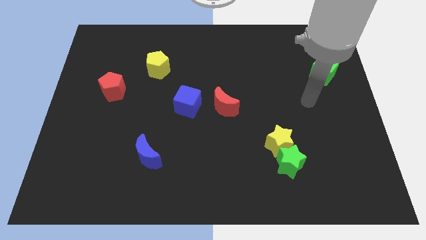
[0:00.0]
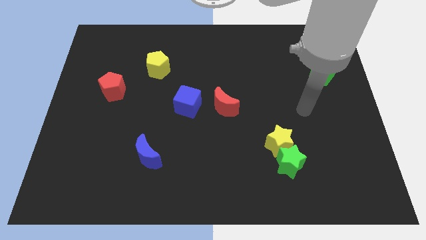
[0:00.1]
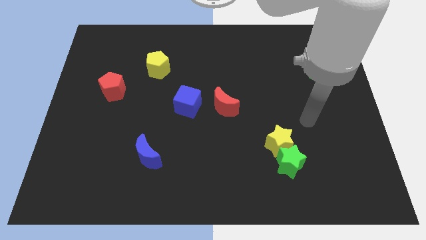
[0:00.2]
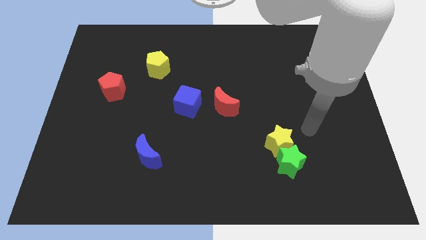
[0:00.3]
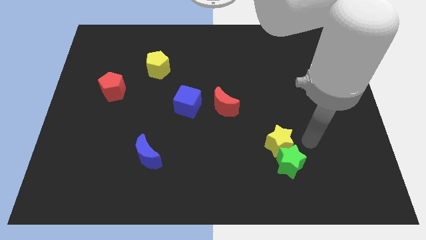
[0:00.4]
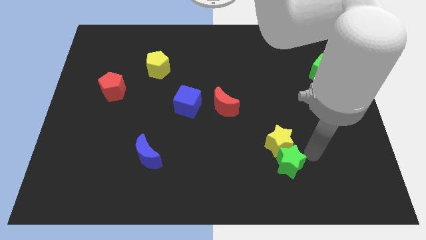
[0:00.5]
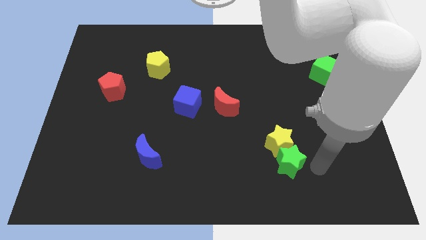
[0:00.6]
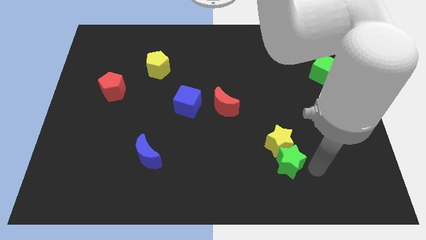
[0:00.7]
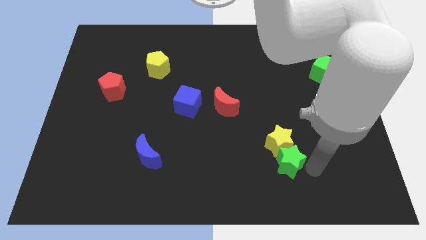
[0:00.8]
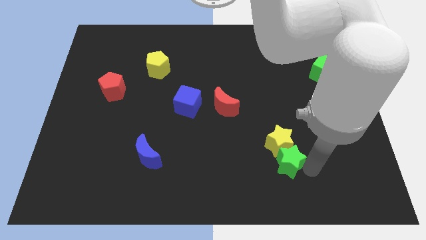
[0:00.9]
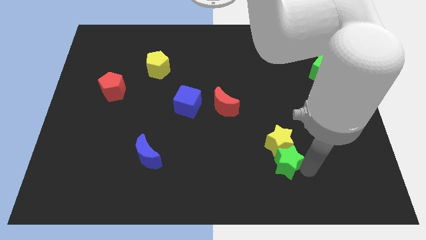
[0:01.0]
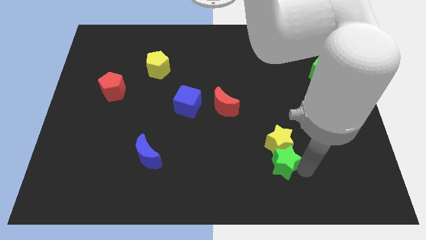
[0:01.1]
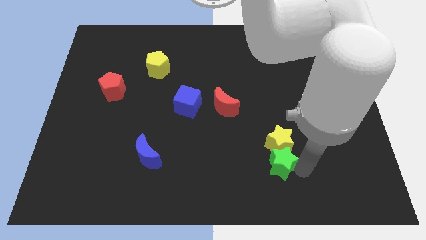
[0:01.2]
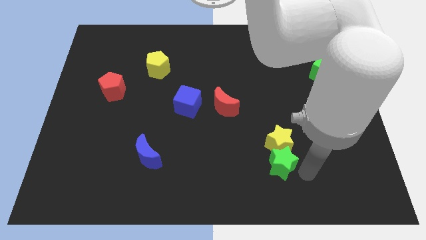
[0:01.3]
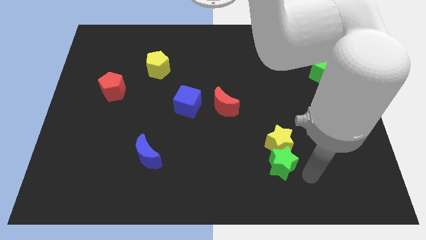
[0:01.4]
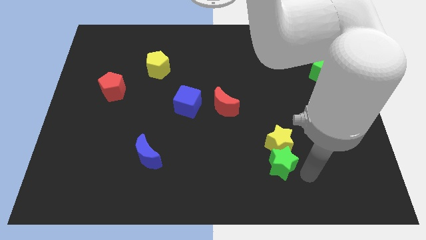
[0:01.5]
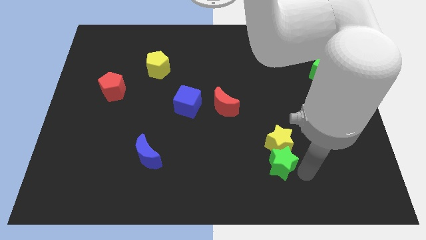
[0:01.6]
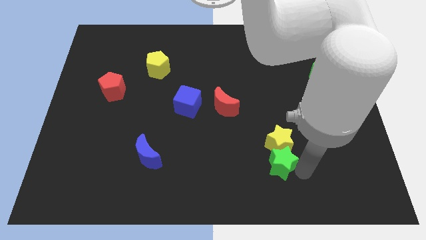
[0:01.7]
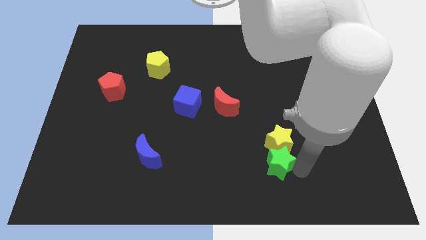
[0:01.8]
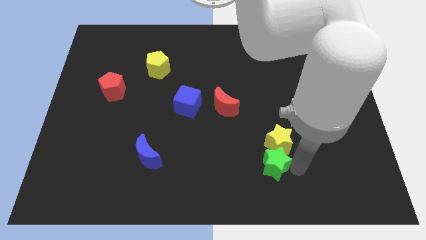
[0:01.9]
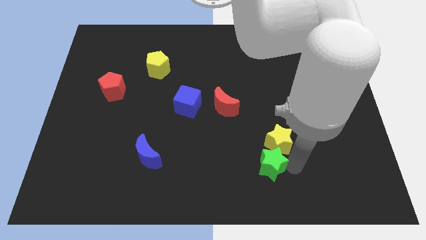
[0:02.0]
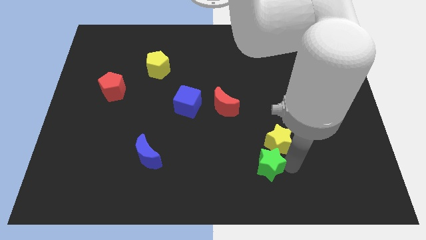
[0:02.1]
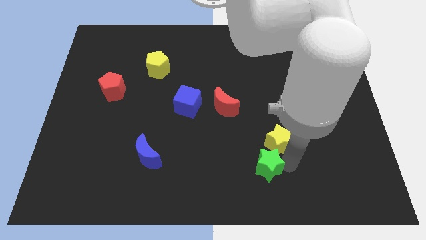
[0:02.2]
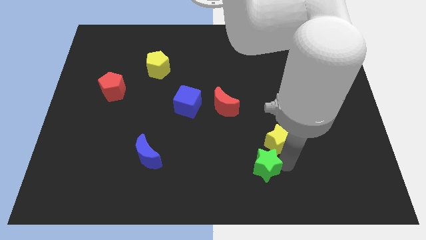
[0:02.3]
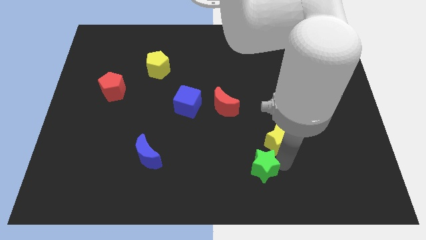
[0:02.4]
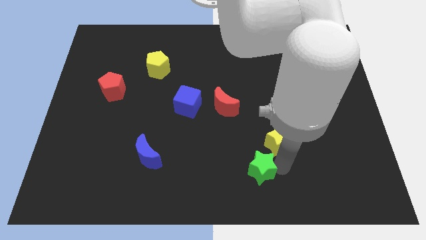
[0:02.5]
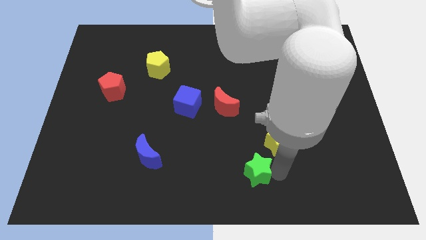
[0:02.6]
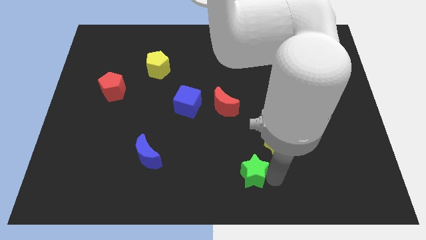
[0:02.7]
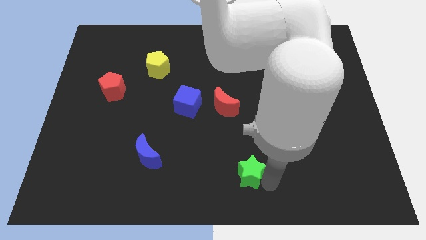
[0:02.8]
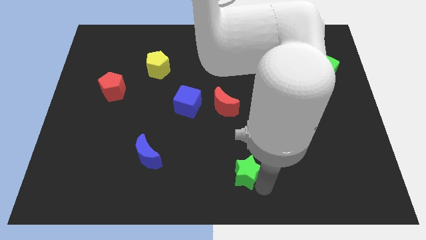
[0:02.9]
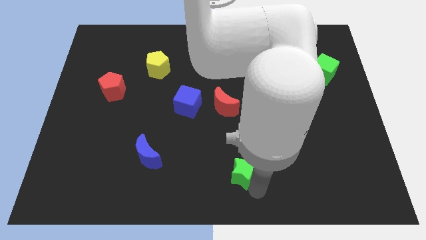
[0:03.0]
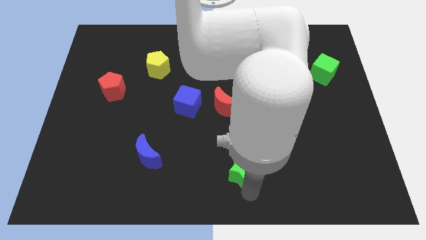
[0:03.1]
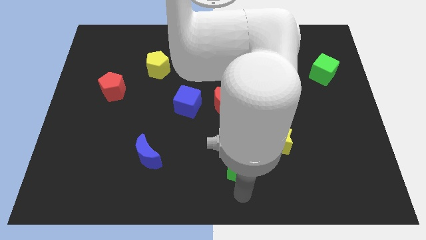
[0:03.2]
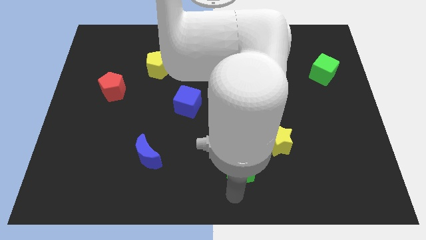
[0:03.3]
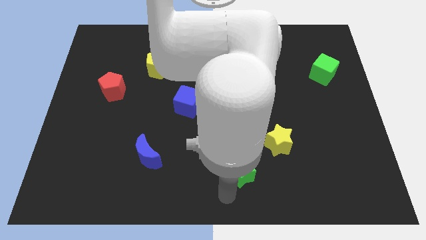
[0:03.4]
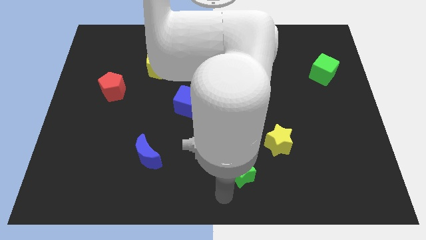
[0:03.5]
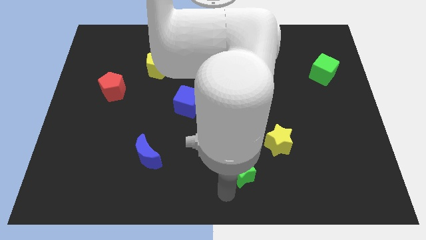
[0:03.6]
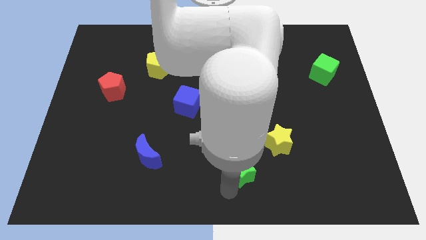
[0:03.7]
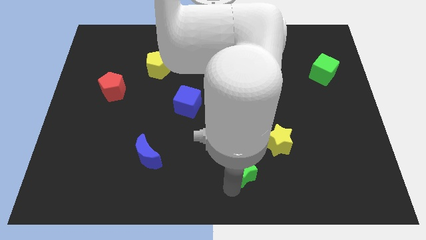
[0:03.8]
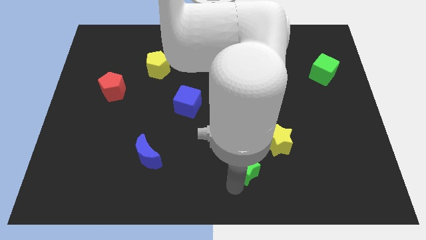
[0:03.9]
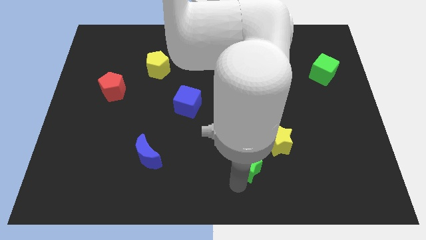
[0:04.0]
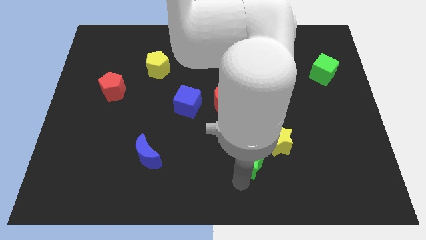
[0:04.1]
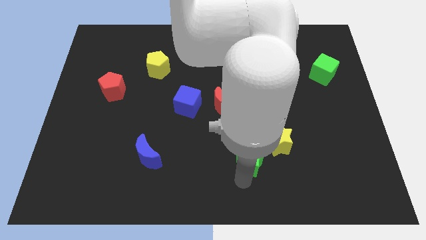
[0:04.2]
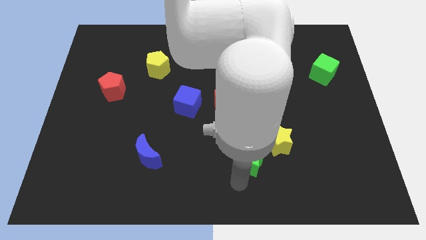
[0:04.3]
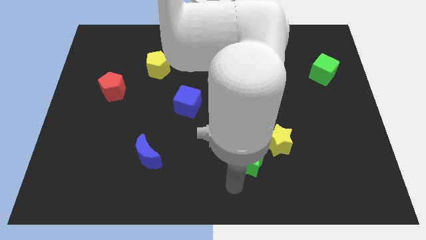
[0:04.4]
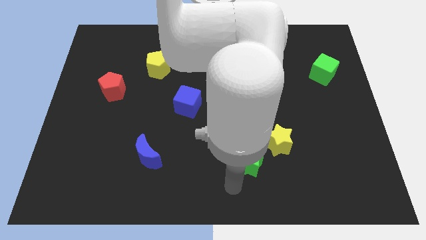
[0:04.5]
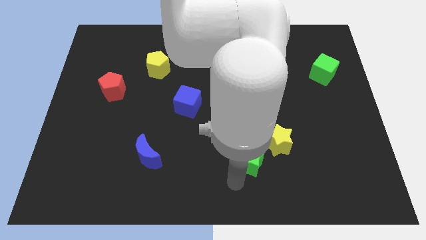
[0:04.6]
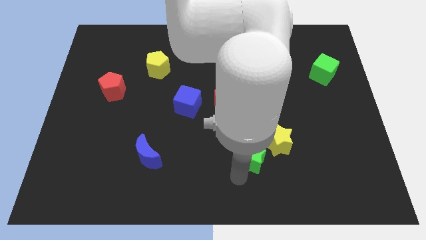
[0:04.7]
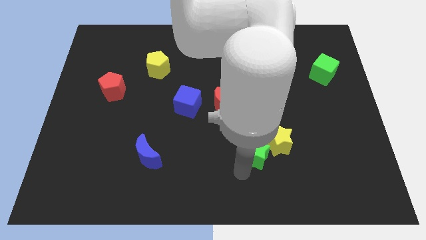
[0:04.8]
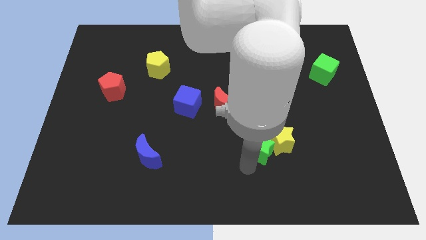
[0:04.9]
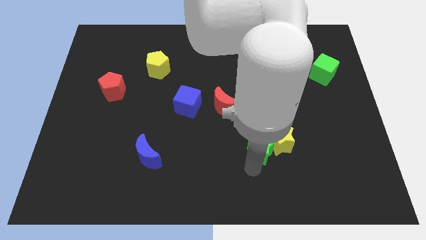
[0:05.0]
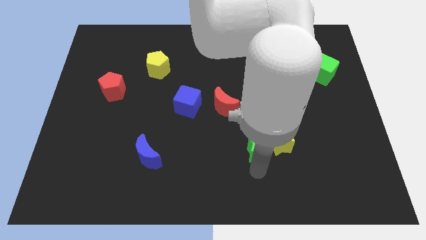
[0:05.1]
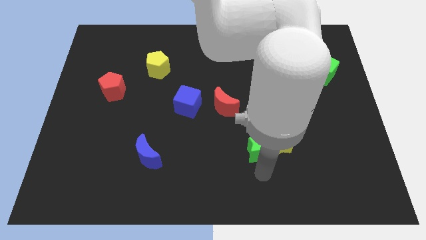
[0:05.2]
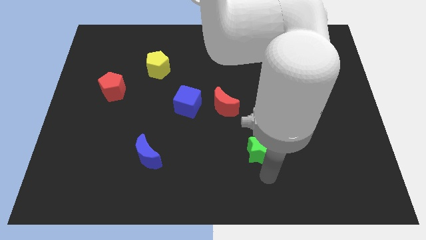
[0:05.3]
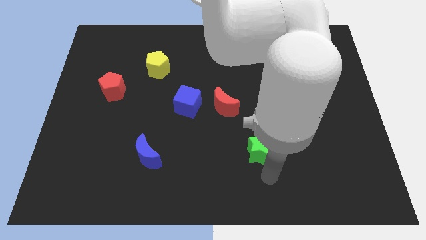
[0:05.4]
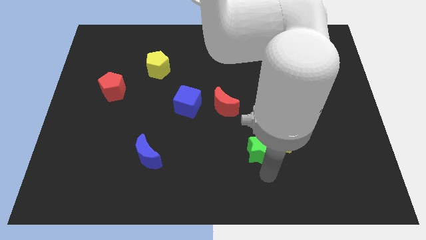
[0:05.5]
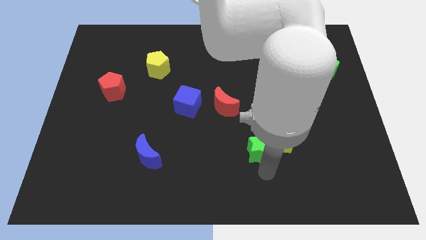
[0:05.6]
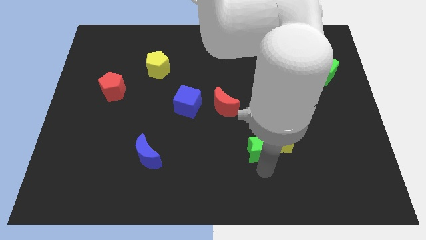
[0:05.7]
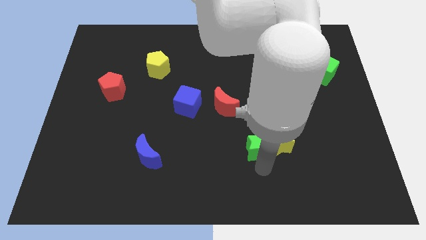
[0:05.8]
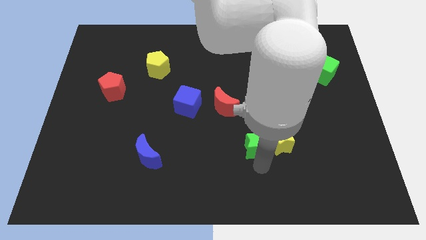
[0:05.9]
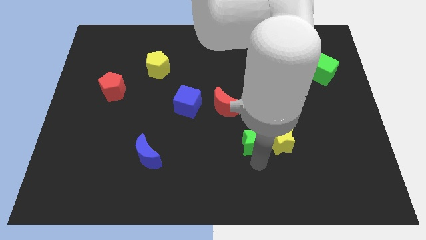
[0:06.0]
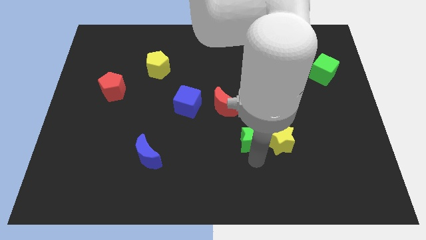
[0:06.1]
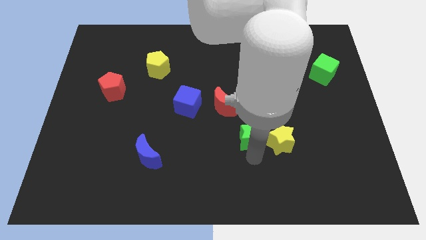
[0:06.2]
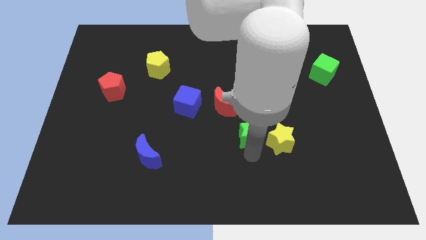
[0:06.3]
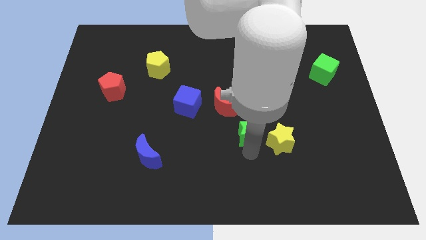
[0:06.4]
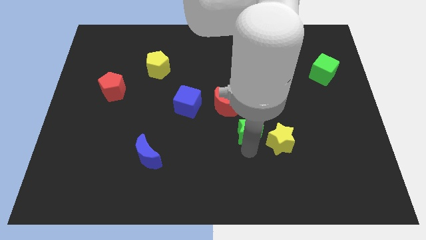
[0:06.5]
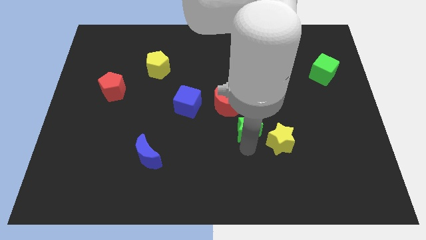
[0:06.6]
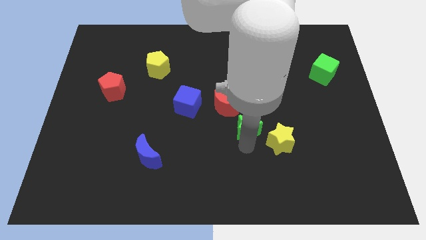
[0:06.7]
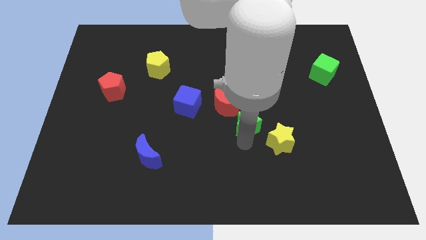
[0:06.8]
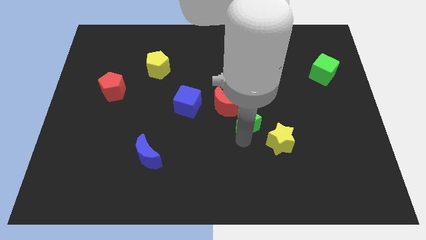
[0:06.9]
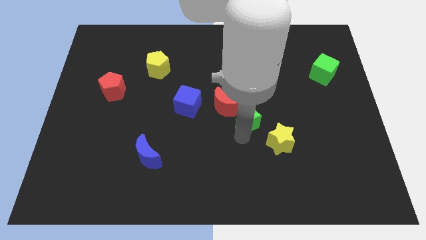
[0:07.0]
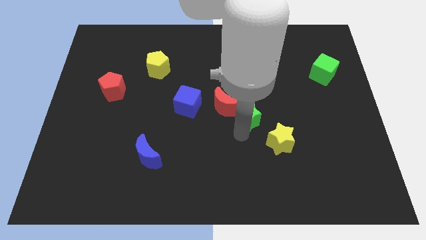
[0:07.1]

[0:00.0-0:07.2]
move the green star next to the red moon

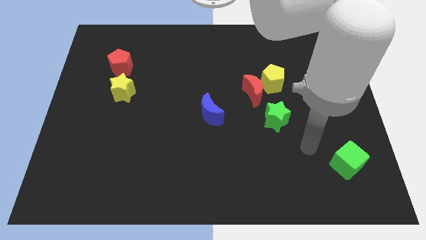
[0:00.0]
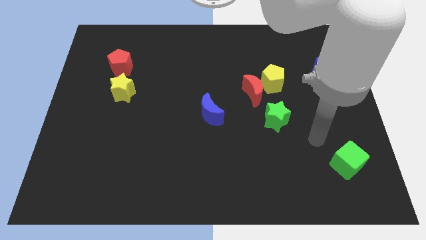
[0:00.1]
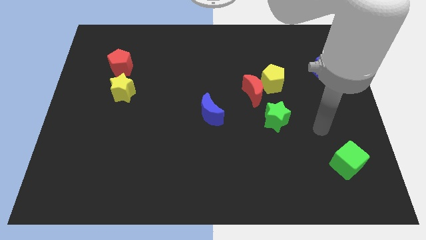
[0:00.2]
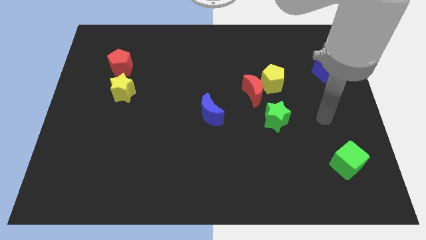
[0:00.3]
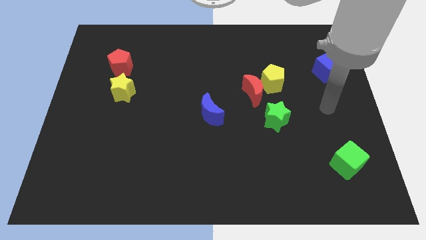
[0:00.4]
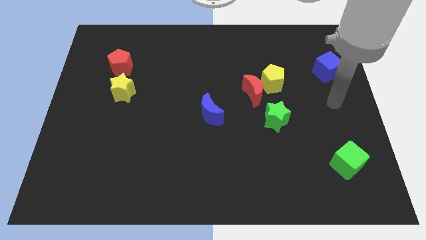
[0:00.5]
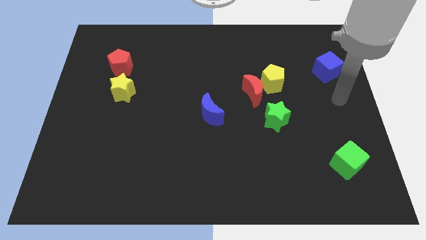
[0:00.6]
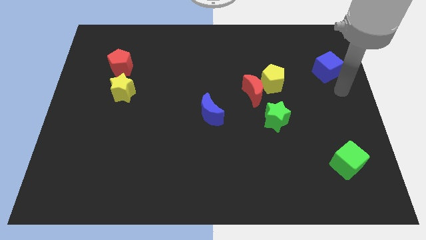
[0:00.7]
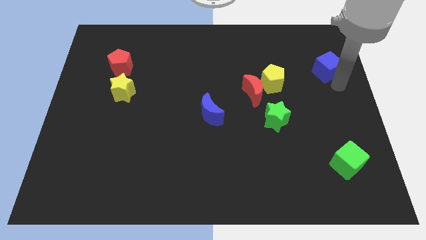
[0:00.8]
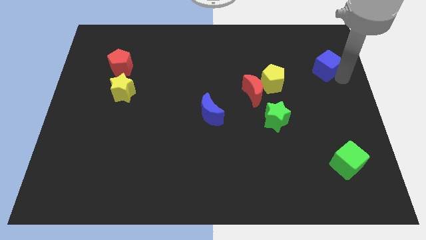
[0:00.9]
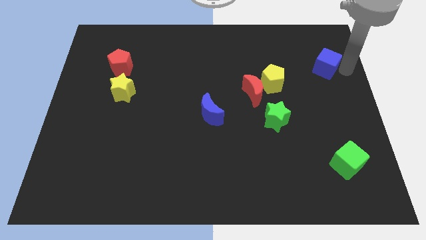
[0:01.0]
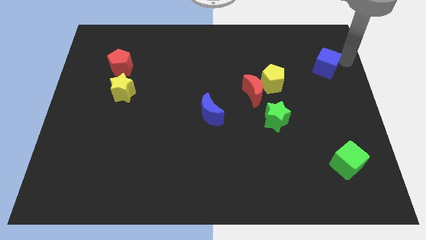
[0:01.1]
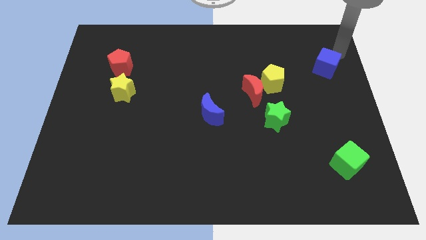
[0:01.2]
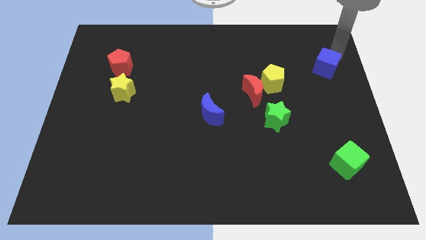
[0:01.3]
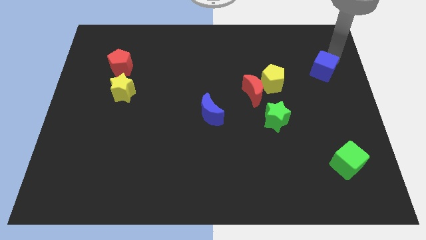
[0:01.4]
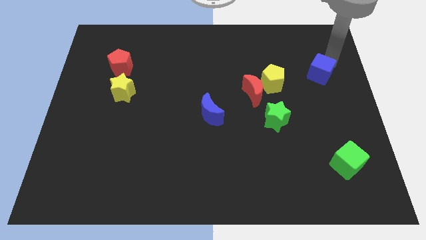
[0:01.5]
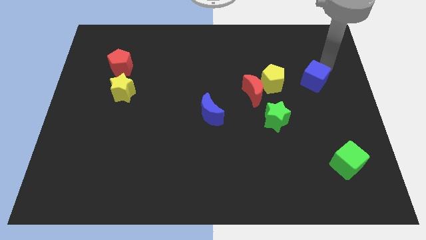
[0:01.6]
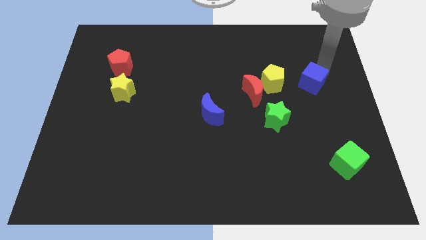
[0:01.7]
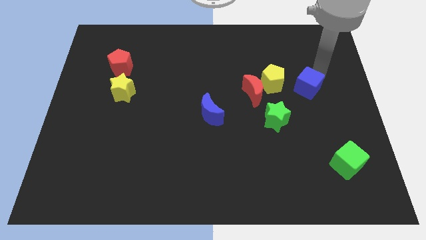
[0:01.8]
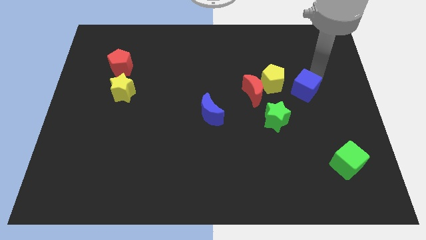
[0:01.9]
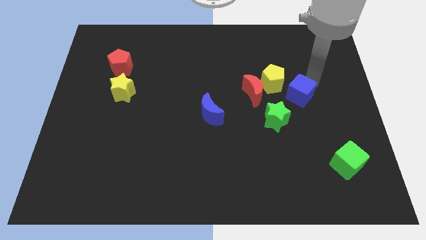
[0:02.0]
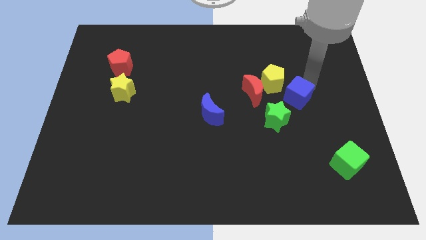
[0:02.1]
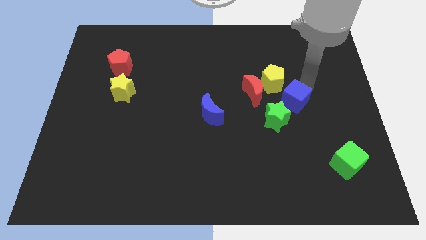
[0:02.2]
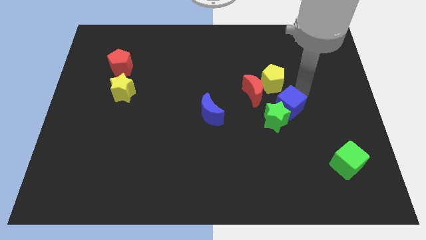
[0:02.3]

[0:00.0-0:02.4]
slide the blue cube towards the green star
